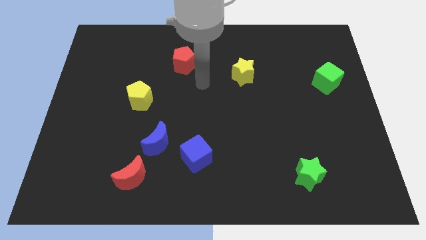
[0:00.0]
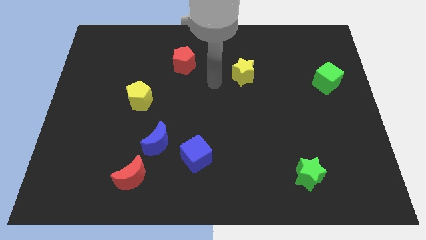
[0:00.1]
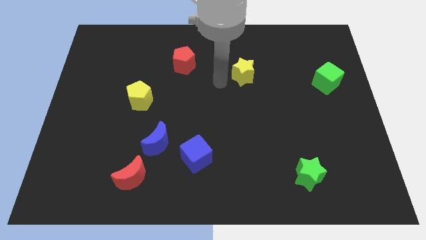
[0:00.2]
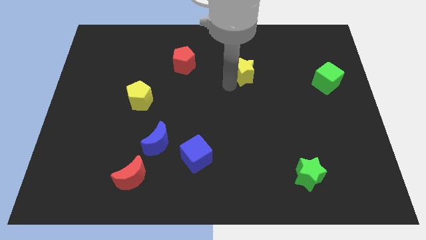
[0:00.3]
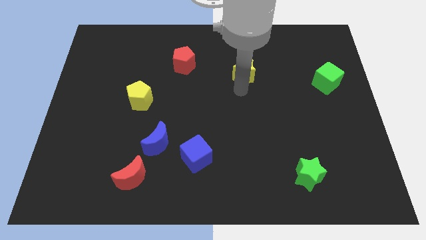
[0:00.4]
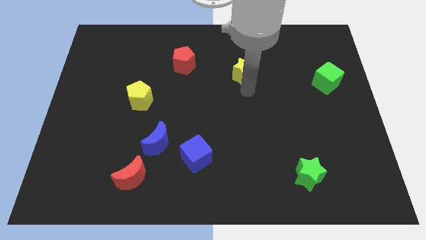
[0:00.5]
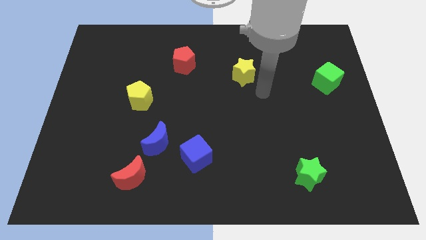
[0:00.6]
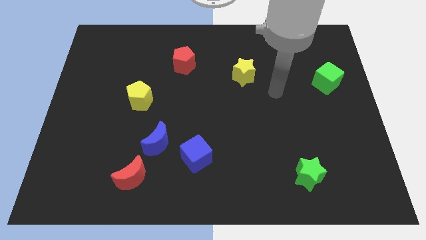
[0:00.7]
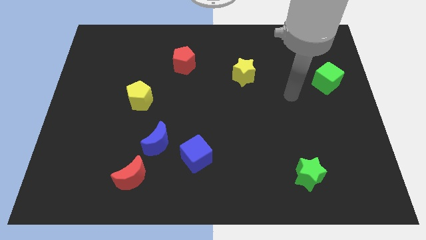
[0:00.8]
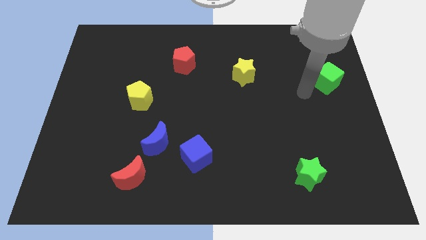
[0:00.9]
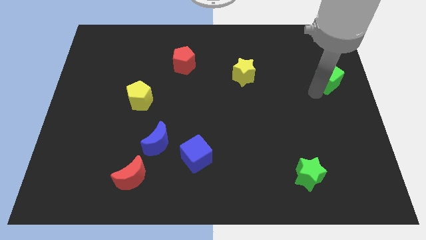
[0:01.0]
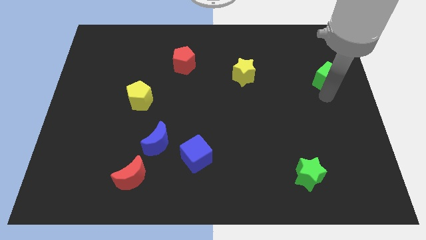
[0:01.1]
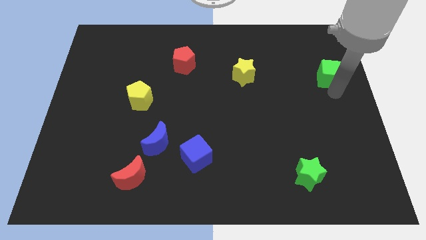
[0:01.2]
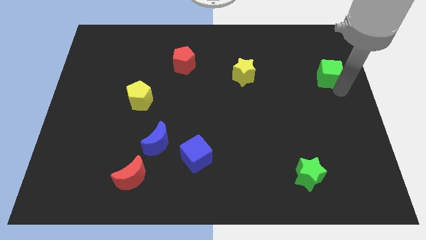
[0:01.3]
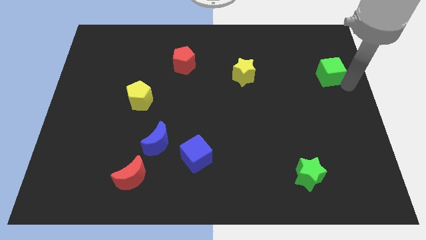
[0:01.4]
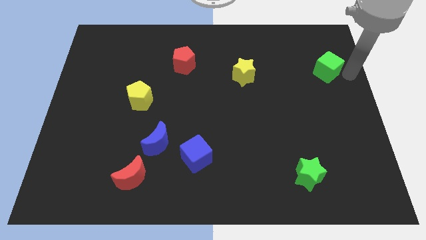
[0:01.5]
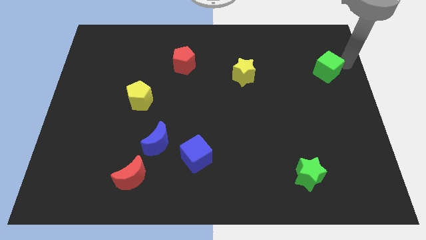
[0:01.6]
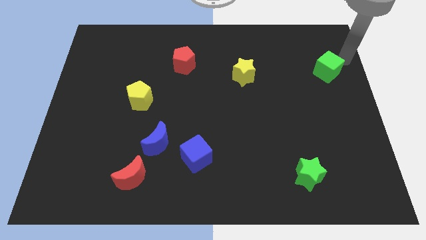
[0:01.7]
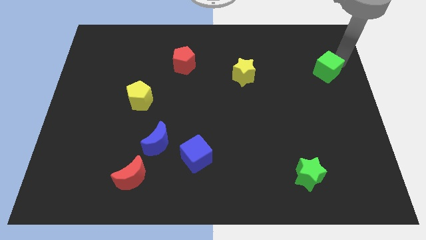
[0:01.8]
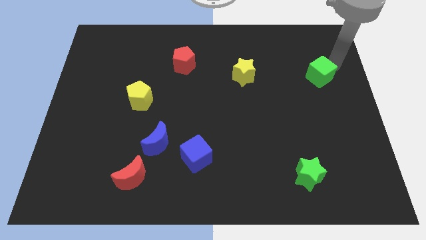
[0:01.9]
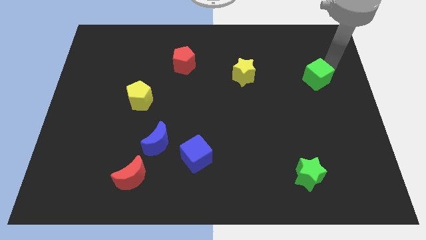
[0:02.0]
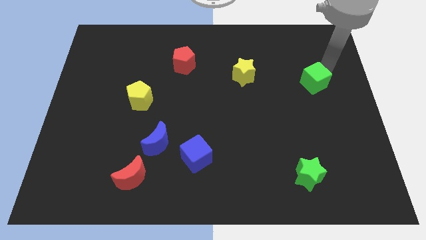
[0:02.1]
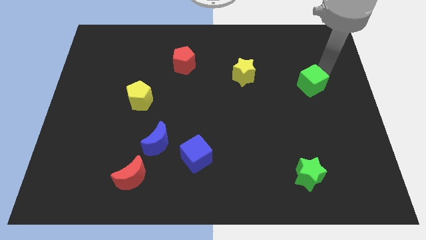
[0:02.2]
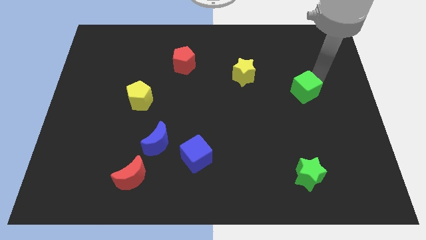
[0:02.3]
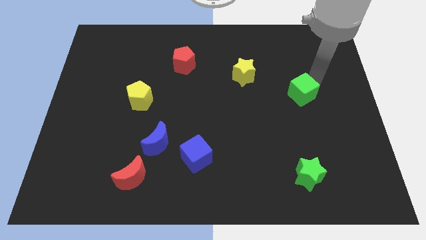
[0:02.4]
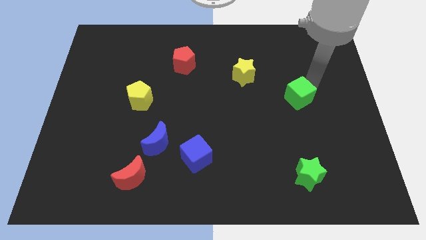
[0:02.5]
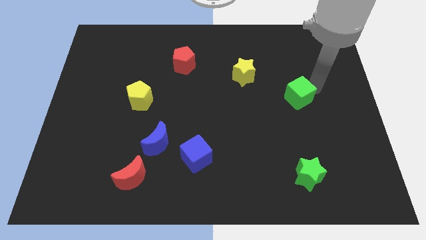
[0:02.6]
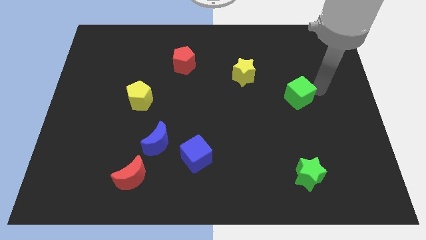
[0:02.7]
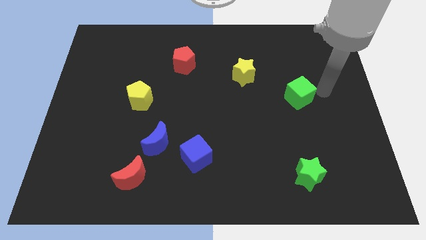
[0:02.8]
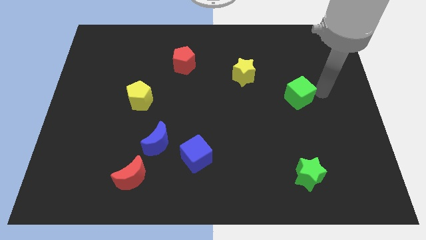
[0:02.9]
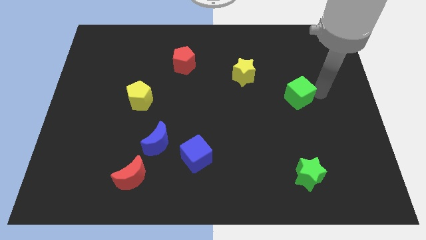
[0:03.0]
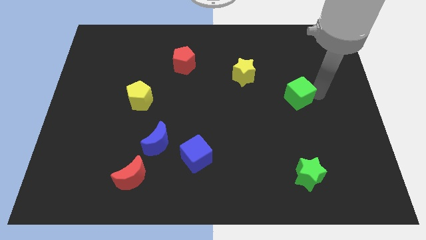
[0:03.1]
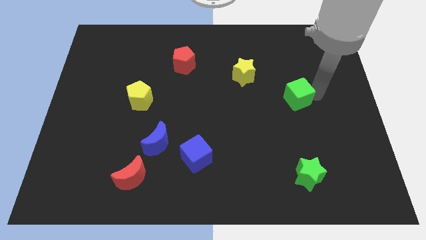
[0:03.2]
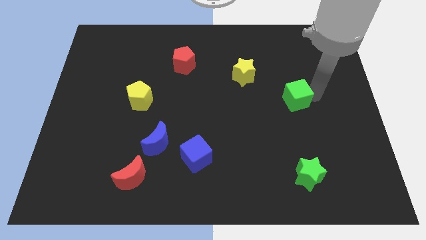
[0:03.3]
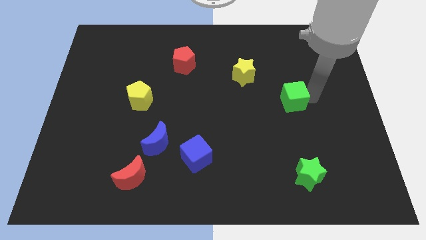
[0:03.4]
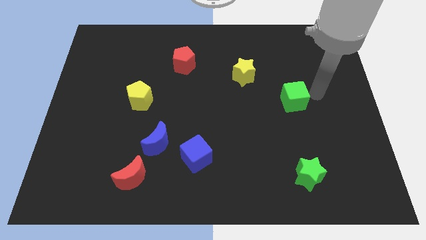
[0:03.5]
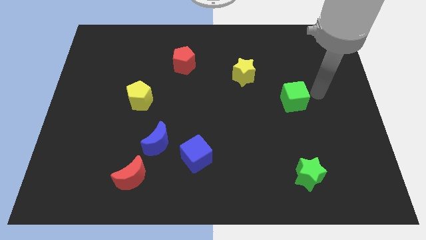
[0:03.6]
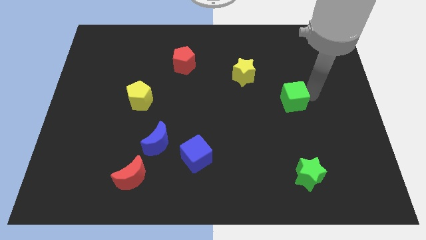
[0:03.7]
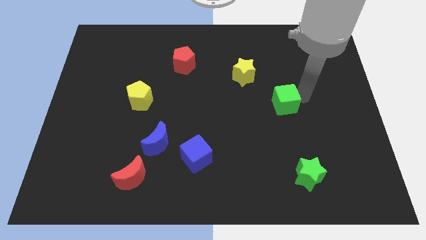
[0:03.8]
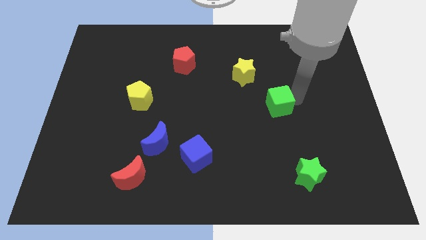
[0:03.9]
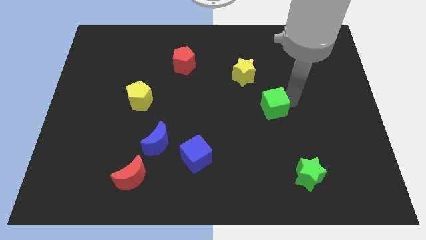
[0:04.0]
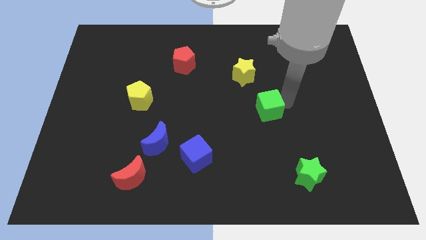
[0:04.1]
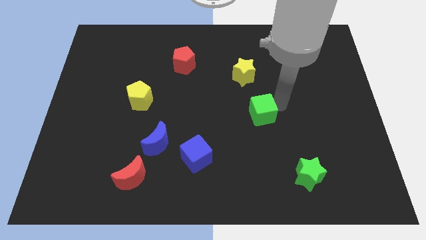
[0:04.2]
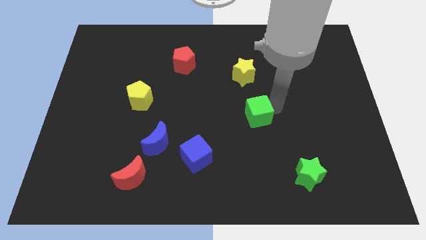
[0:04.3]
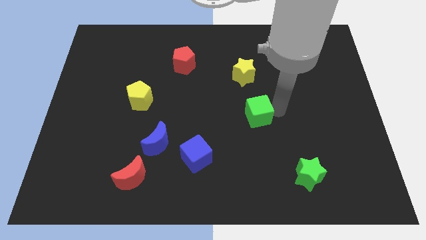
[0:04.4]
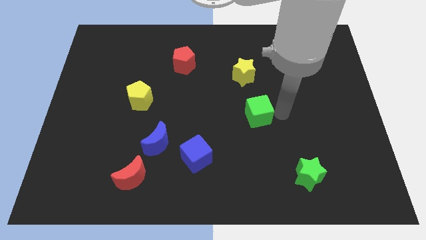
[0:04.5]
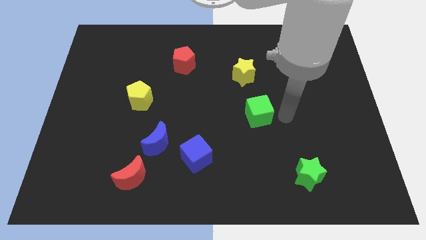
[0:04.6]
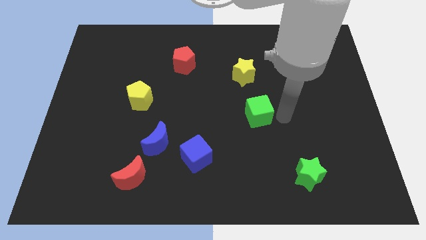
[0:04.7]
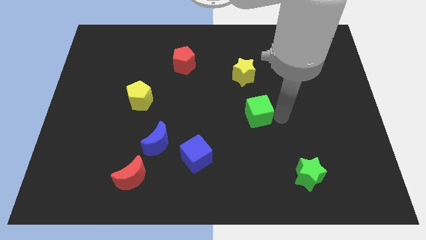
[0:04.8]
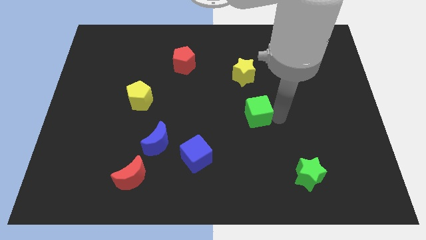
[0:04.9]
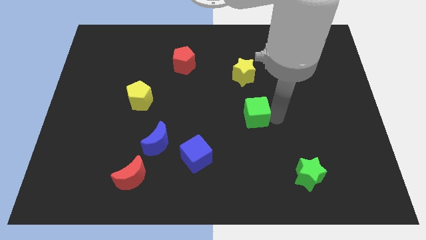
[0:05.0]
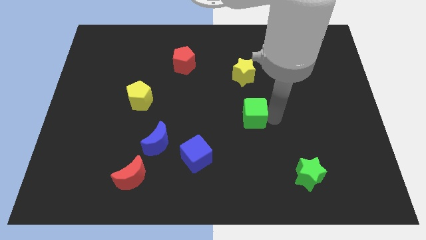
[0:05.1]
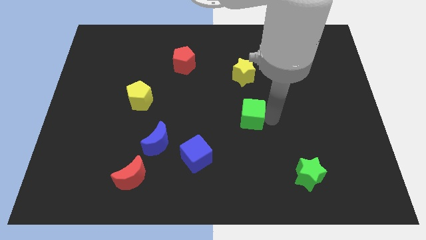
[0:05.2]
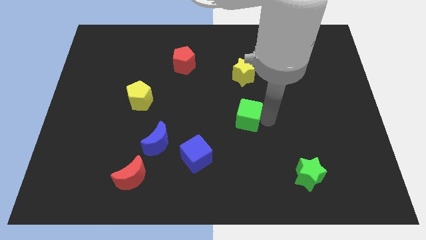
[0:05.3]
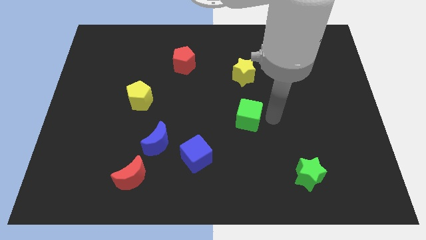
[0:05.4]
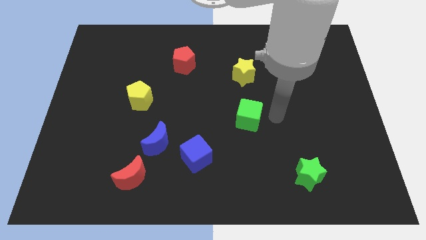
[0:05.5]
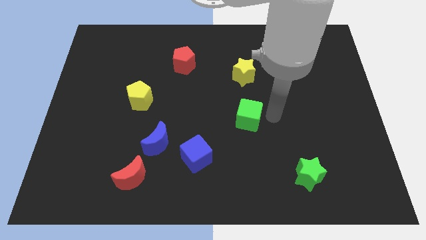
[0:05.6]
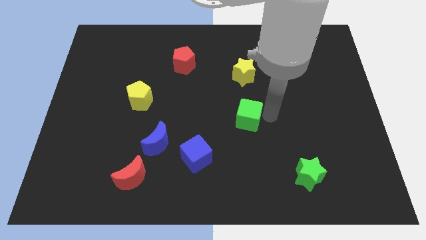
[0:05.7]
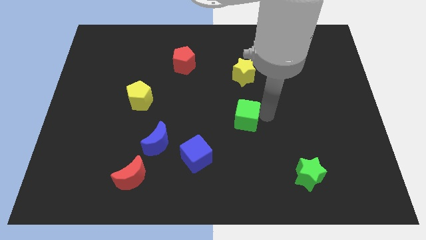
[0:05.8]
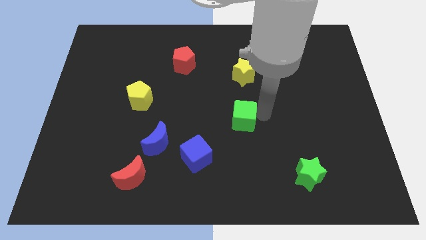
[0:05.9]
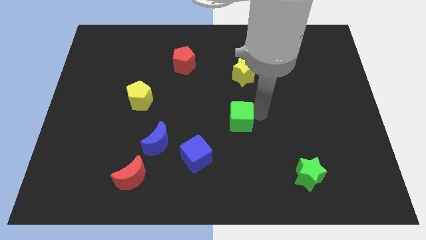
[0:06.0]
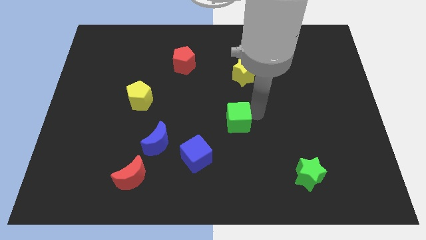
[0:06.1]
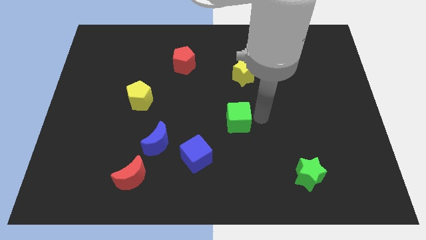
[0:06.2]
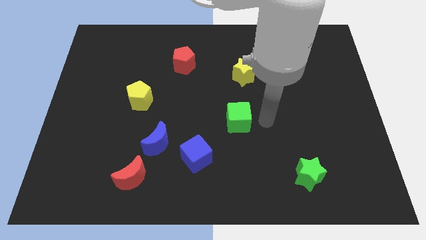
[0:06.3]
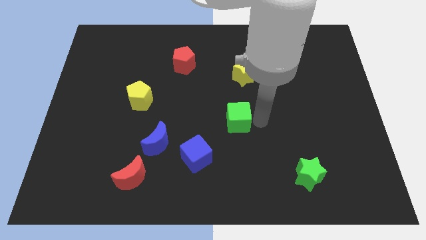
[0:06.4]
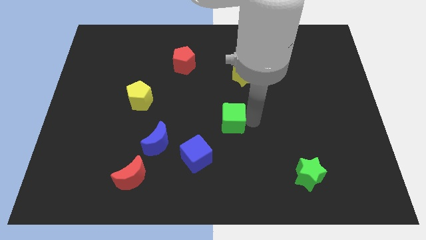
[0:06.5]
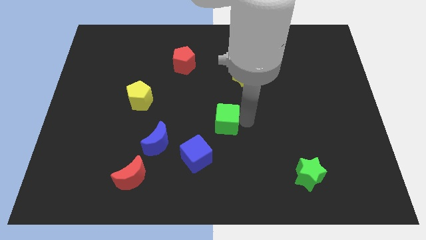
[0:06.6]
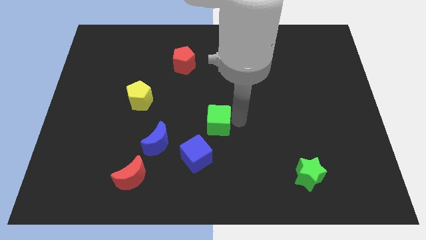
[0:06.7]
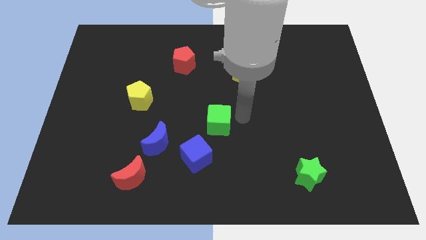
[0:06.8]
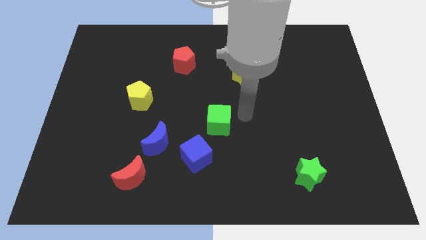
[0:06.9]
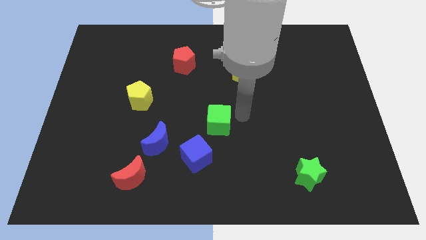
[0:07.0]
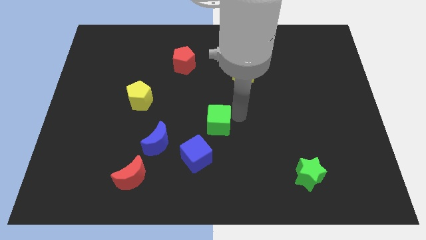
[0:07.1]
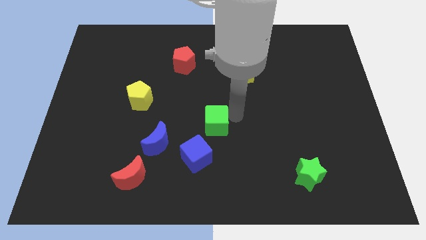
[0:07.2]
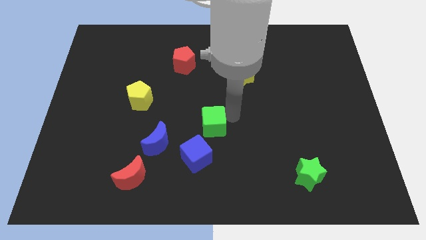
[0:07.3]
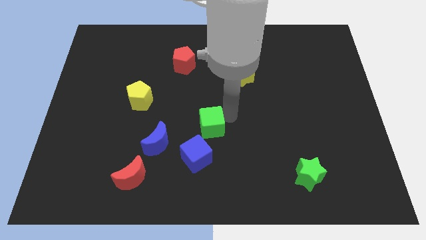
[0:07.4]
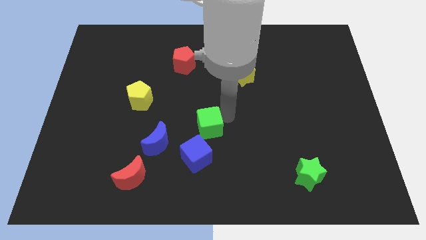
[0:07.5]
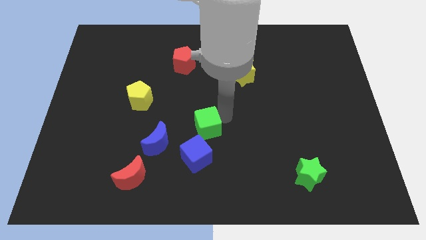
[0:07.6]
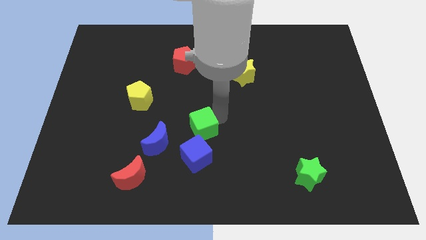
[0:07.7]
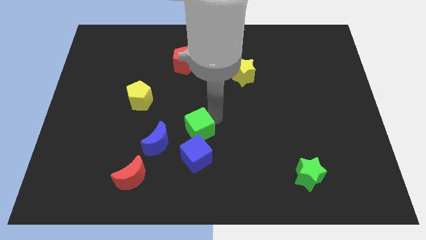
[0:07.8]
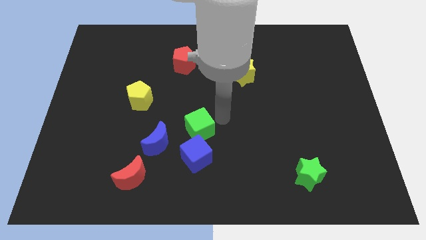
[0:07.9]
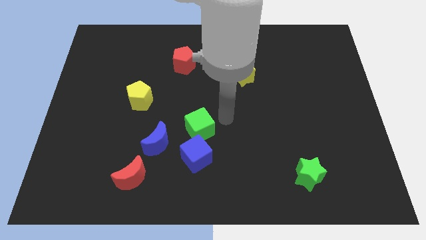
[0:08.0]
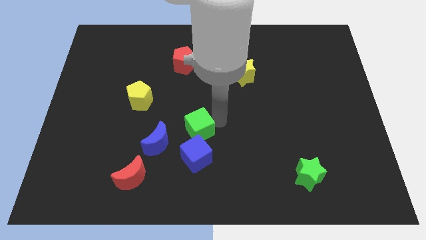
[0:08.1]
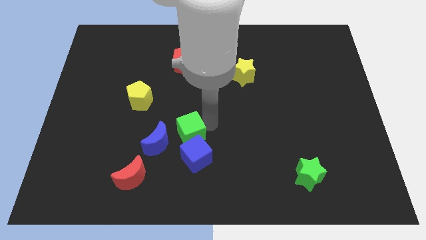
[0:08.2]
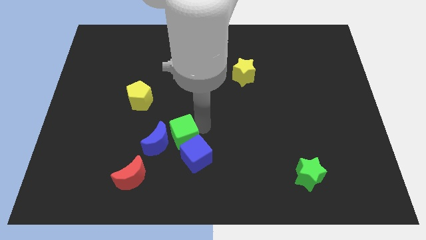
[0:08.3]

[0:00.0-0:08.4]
slide the green cube to the blue moon
